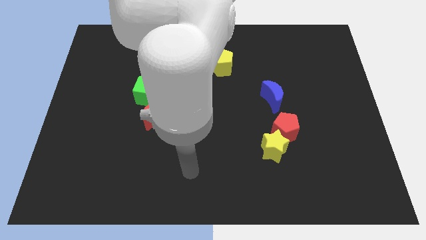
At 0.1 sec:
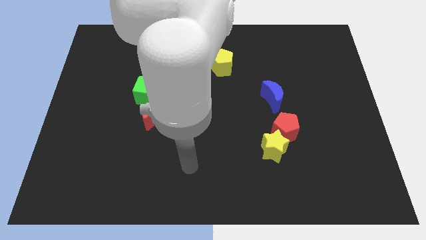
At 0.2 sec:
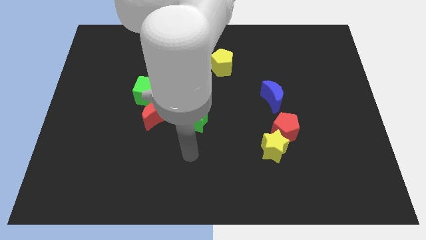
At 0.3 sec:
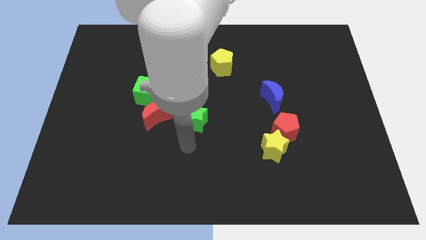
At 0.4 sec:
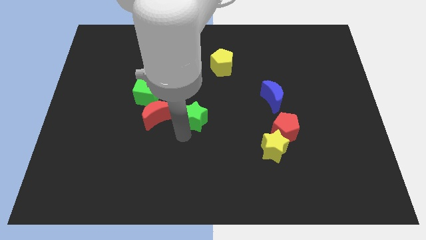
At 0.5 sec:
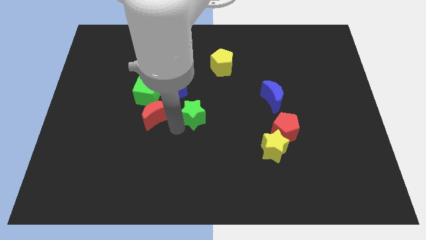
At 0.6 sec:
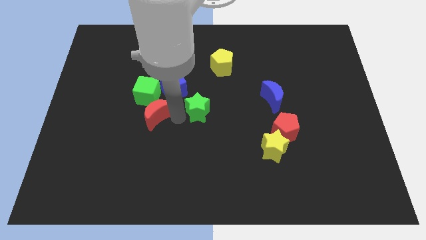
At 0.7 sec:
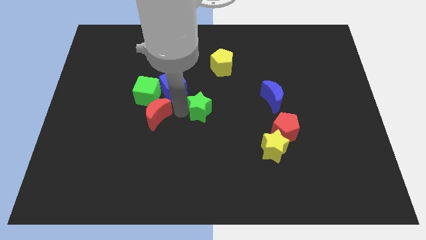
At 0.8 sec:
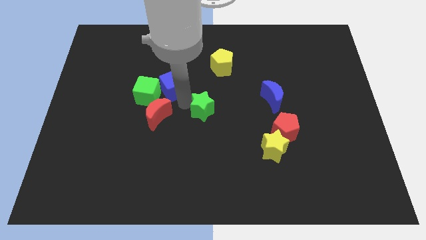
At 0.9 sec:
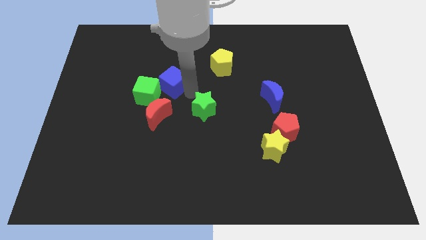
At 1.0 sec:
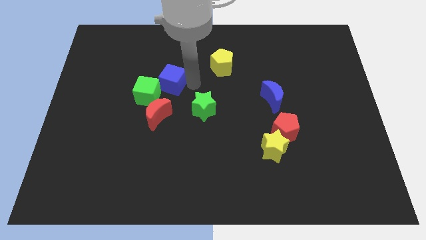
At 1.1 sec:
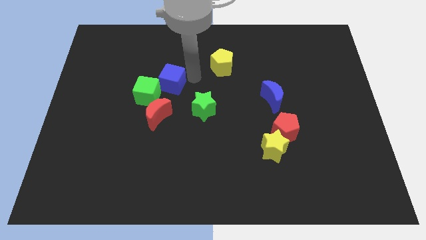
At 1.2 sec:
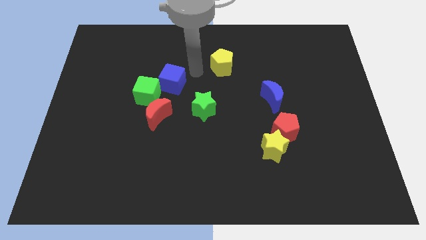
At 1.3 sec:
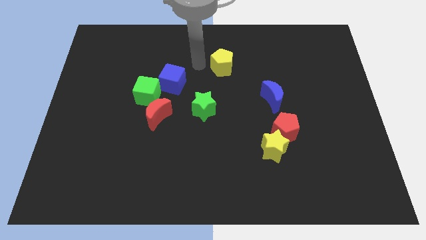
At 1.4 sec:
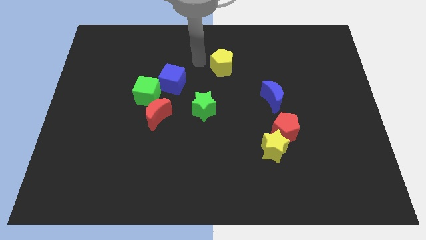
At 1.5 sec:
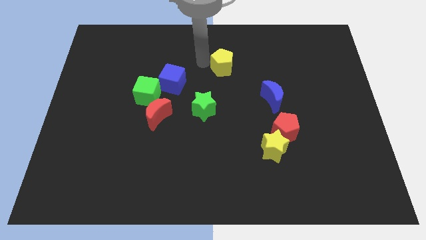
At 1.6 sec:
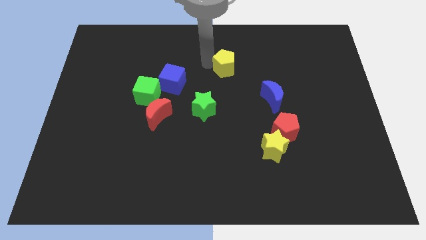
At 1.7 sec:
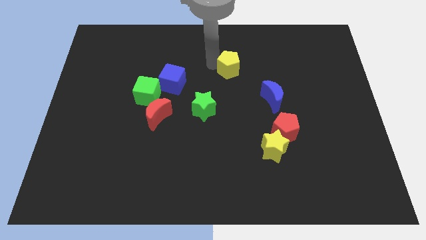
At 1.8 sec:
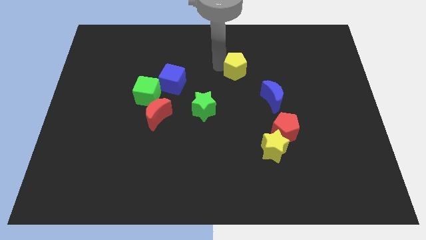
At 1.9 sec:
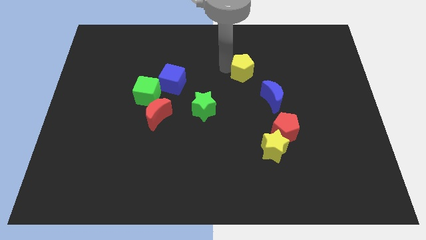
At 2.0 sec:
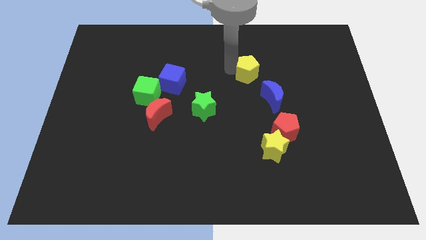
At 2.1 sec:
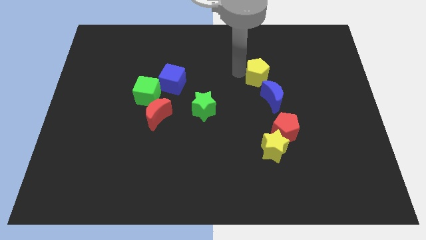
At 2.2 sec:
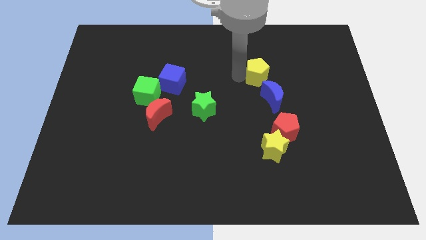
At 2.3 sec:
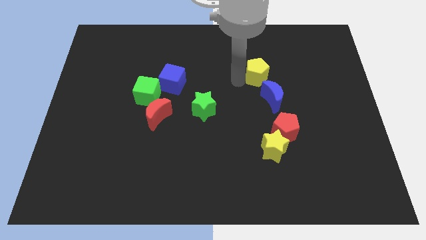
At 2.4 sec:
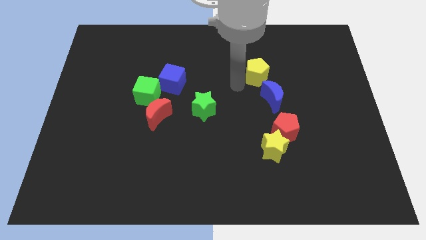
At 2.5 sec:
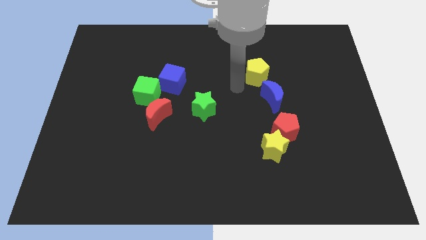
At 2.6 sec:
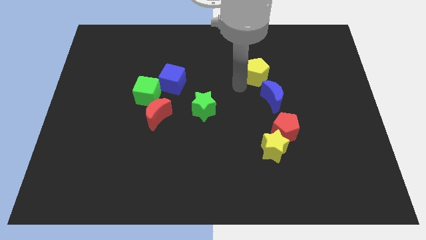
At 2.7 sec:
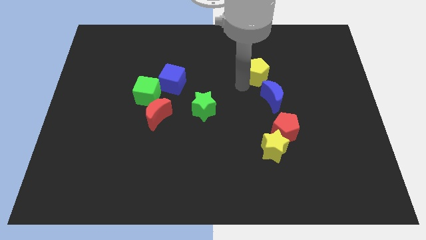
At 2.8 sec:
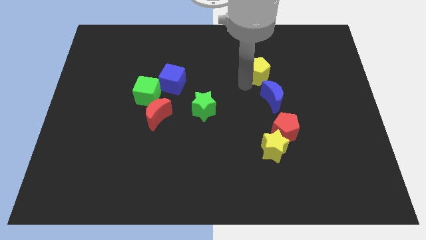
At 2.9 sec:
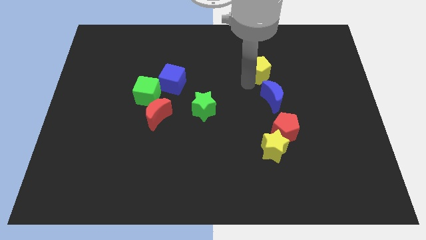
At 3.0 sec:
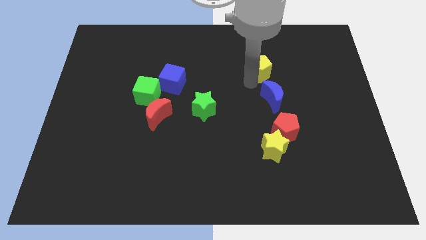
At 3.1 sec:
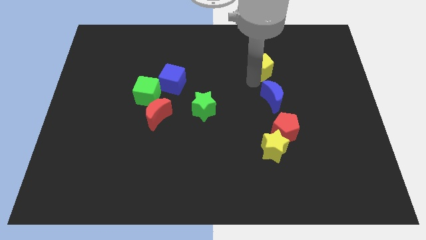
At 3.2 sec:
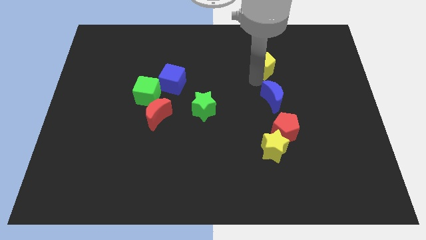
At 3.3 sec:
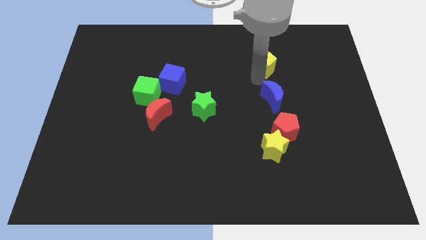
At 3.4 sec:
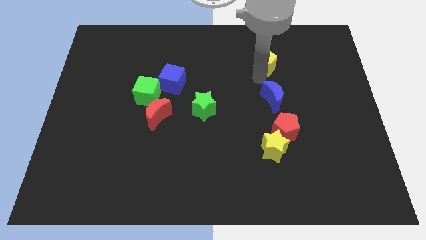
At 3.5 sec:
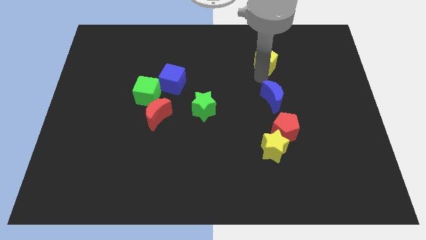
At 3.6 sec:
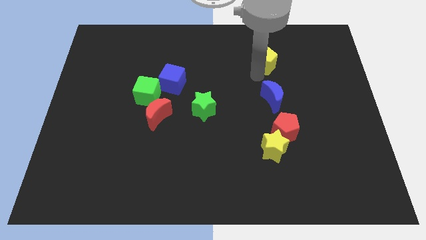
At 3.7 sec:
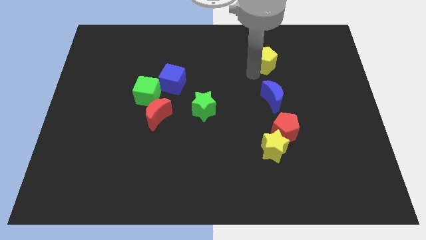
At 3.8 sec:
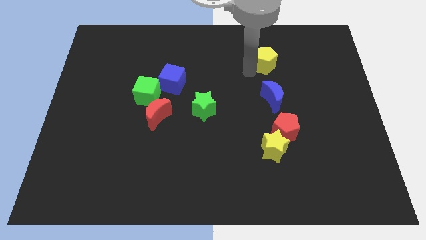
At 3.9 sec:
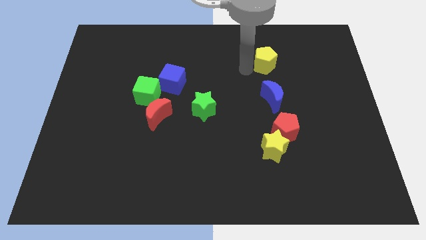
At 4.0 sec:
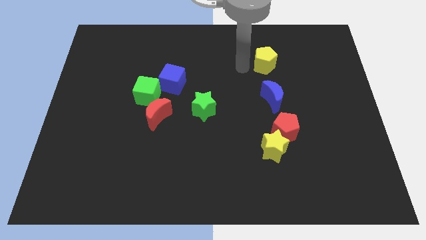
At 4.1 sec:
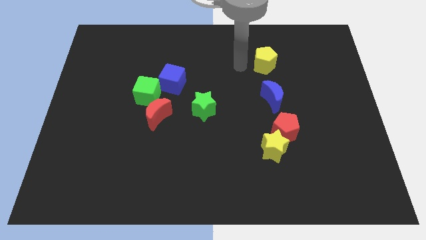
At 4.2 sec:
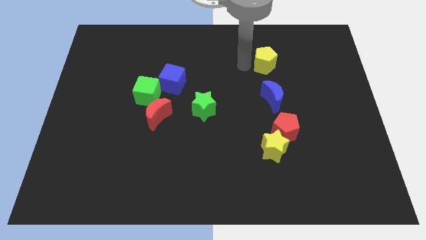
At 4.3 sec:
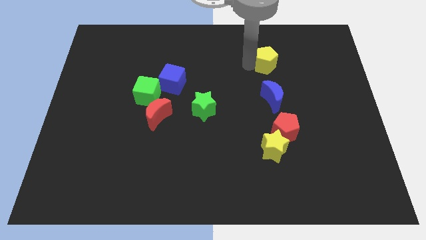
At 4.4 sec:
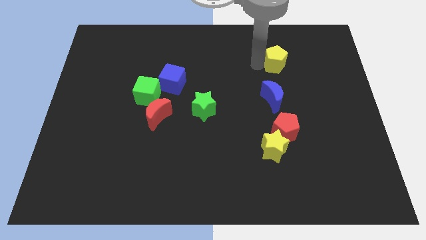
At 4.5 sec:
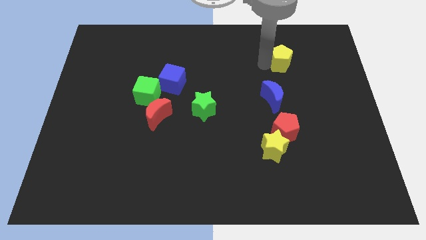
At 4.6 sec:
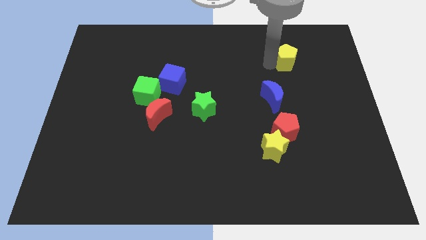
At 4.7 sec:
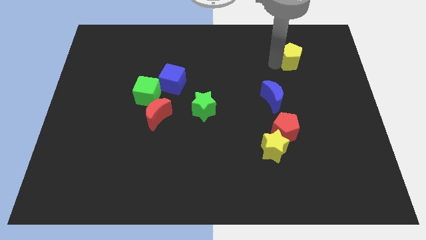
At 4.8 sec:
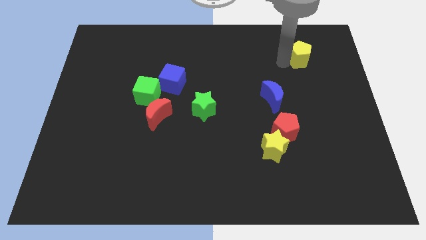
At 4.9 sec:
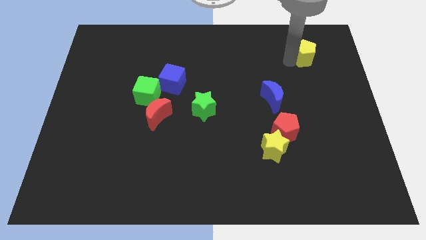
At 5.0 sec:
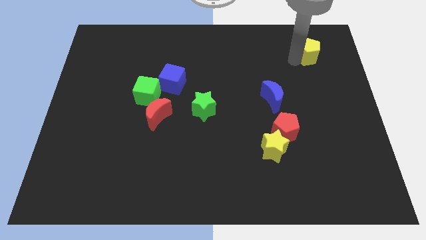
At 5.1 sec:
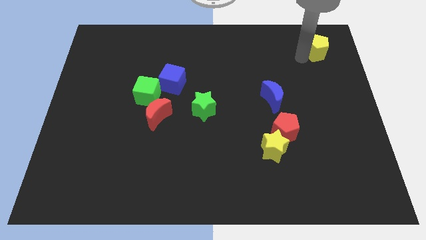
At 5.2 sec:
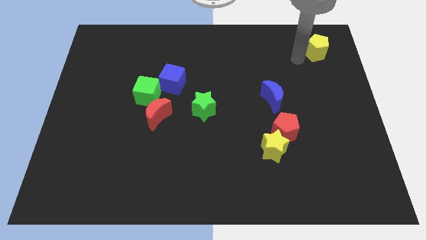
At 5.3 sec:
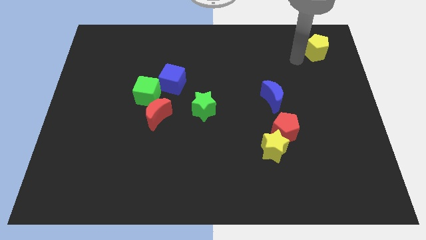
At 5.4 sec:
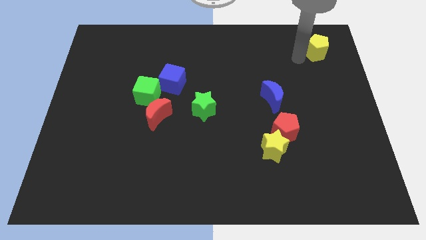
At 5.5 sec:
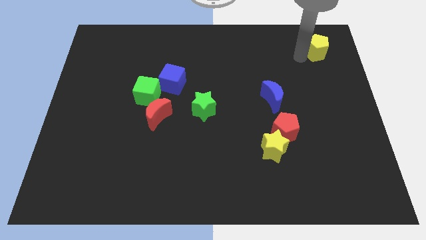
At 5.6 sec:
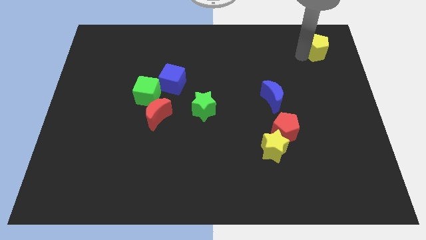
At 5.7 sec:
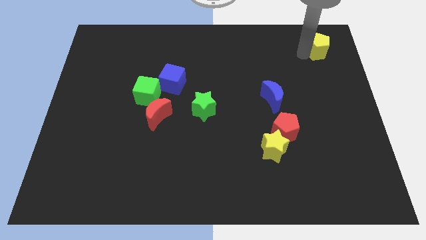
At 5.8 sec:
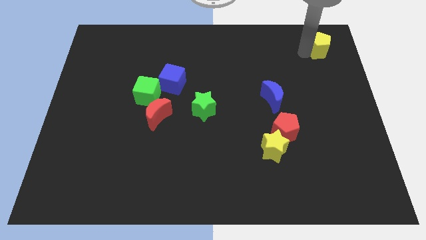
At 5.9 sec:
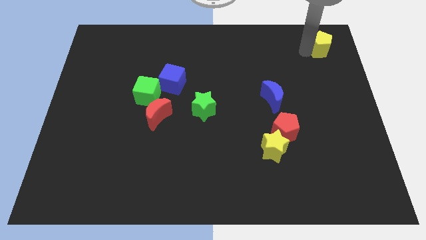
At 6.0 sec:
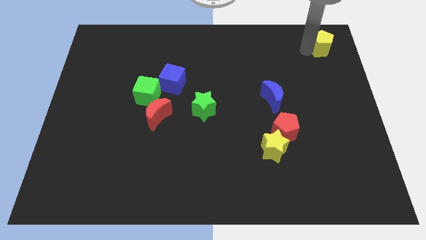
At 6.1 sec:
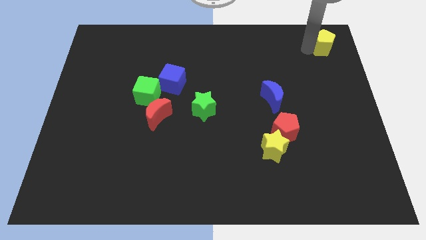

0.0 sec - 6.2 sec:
move the yellow pentagon to the top right corner
